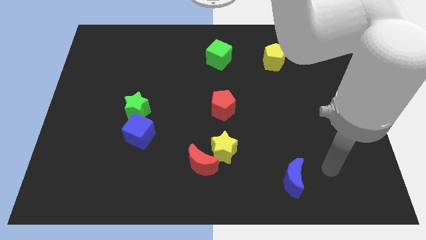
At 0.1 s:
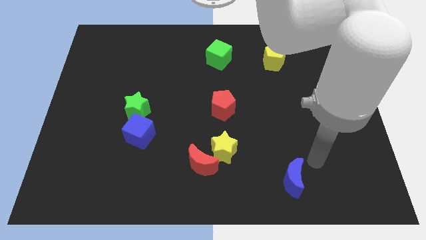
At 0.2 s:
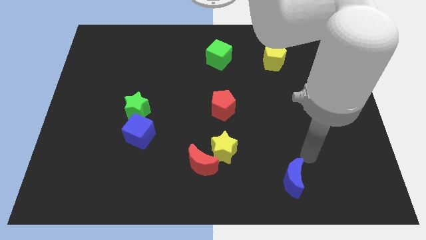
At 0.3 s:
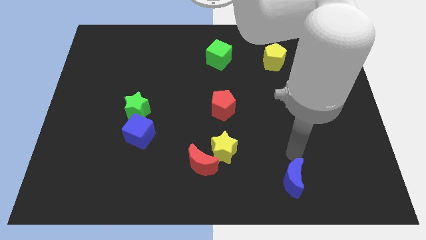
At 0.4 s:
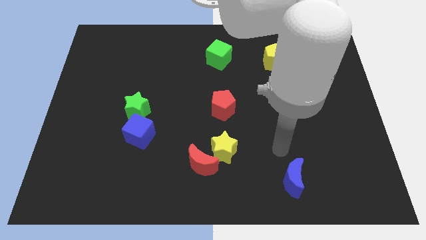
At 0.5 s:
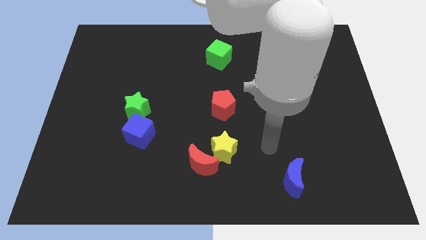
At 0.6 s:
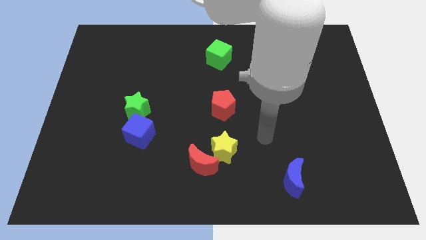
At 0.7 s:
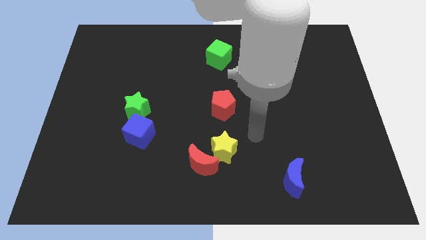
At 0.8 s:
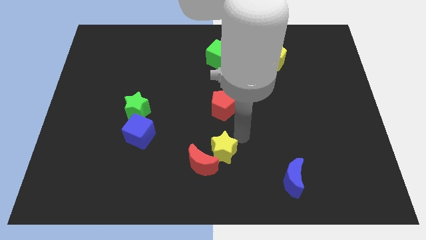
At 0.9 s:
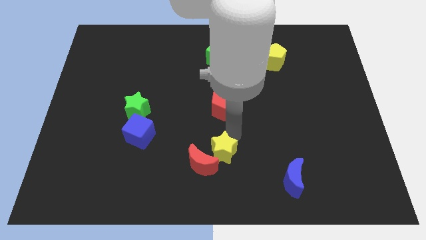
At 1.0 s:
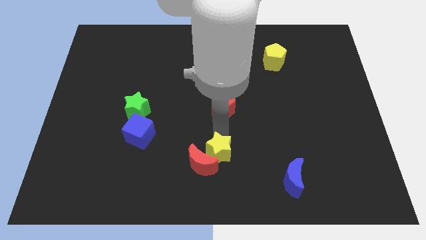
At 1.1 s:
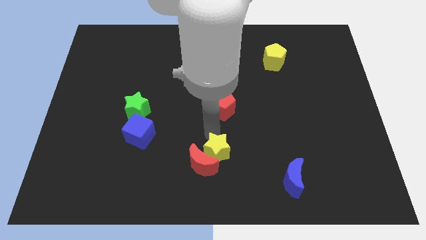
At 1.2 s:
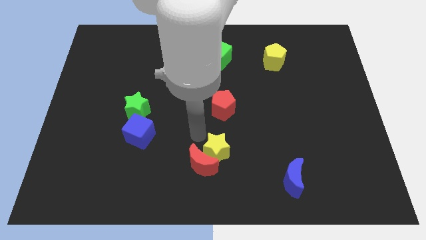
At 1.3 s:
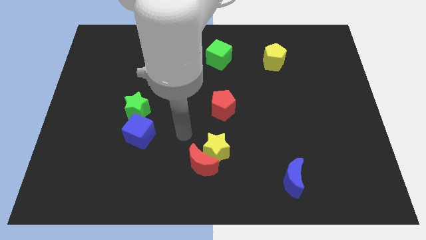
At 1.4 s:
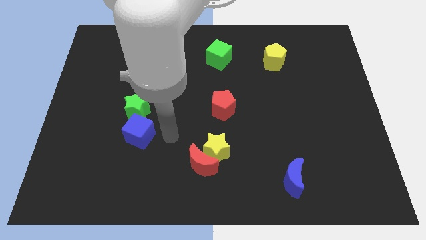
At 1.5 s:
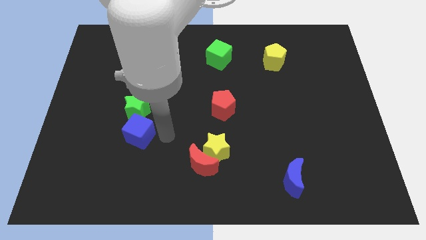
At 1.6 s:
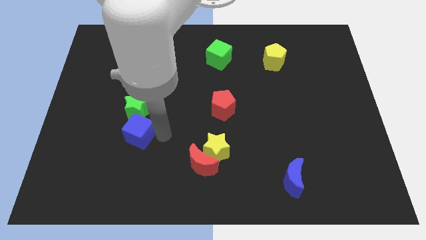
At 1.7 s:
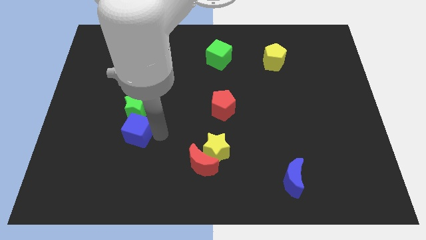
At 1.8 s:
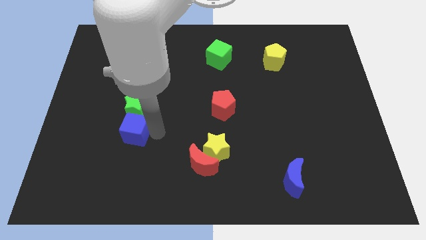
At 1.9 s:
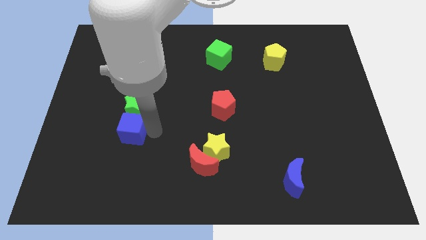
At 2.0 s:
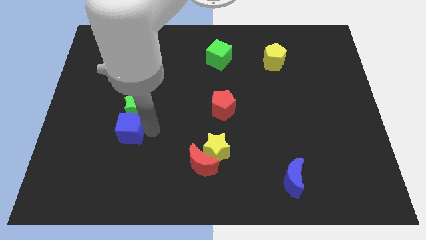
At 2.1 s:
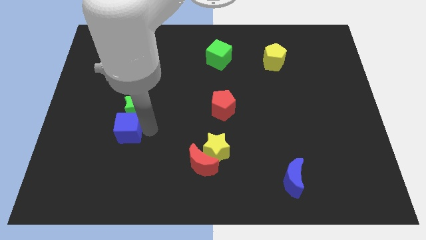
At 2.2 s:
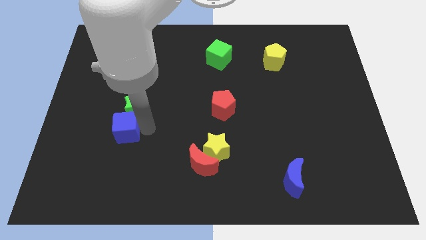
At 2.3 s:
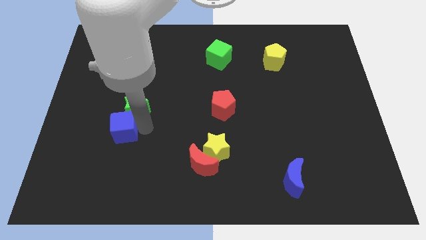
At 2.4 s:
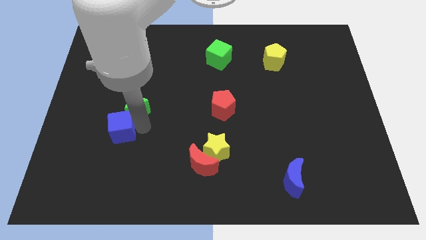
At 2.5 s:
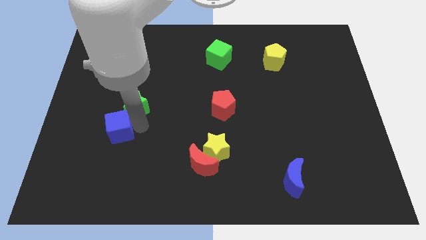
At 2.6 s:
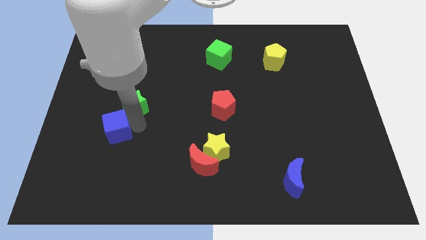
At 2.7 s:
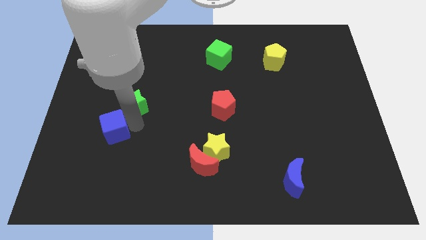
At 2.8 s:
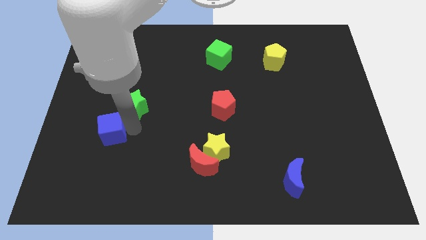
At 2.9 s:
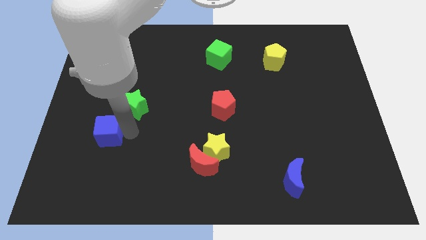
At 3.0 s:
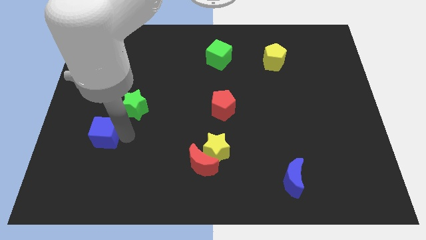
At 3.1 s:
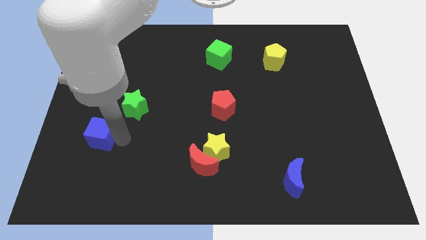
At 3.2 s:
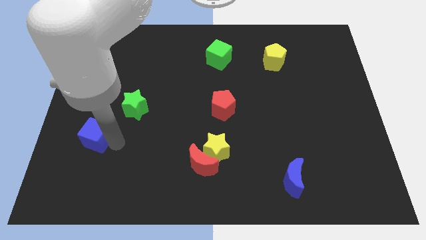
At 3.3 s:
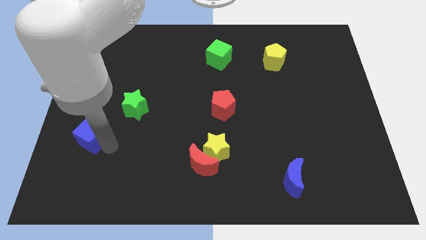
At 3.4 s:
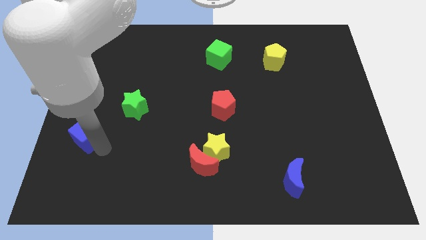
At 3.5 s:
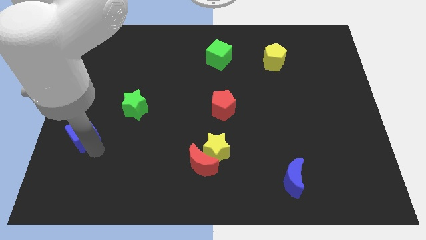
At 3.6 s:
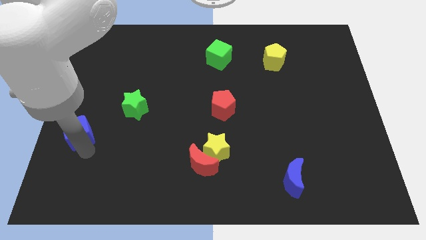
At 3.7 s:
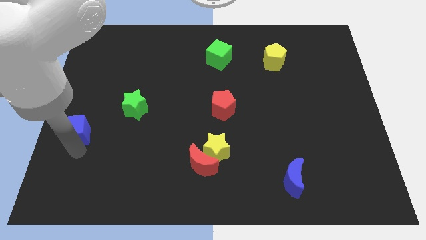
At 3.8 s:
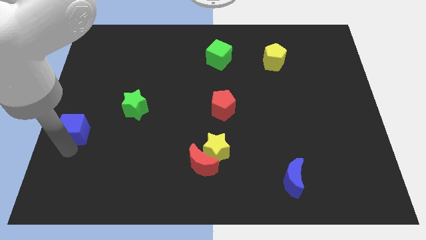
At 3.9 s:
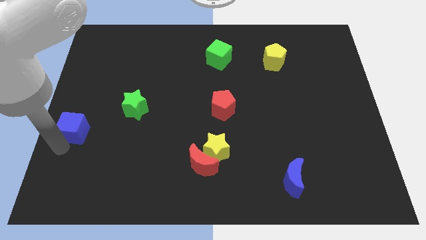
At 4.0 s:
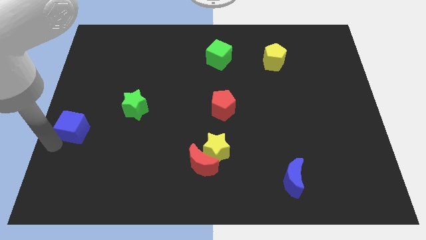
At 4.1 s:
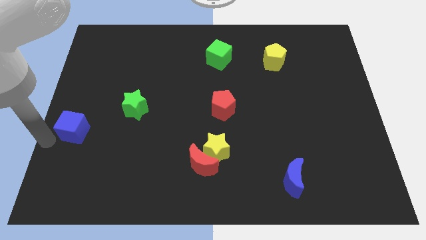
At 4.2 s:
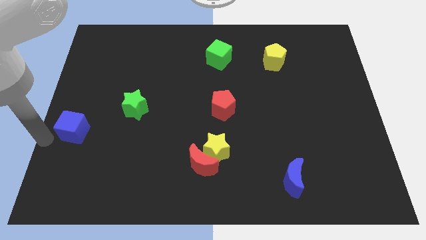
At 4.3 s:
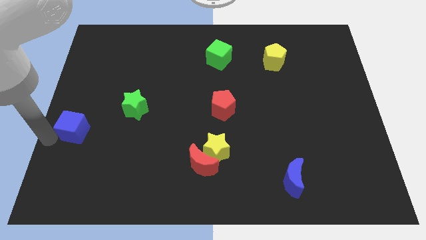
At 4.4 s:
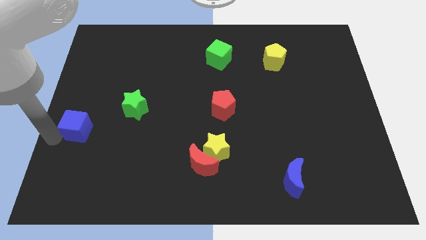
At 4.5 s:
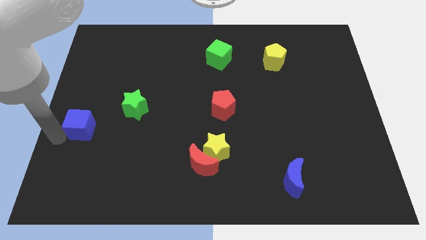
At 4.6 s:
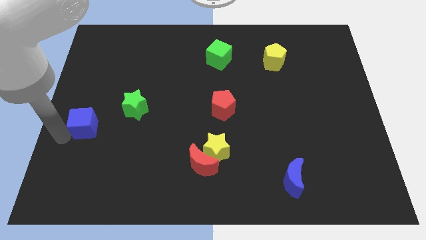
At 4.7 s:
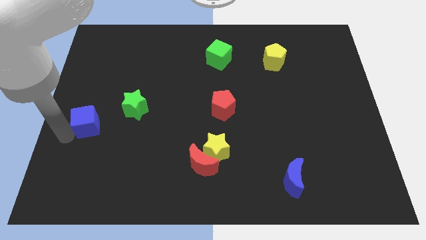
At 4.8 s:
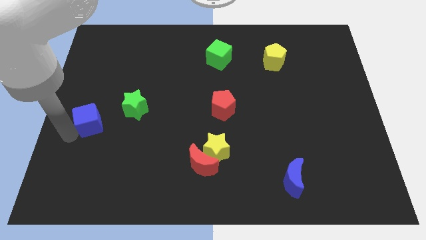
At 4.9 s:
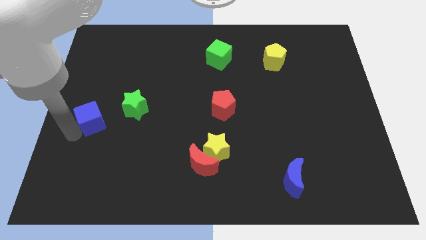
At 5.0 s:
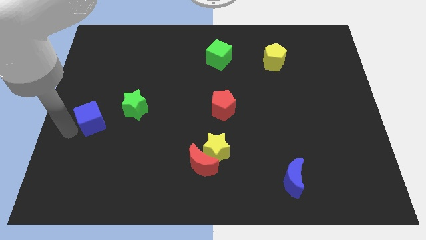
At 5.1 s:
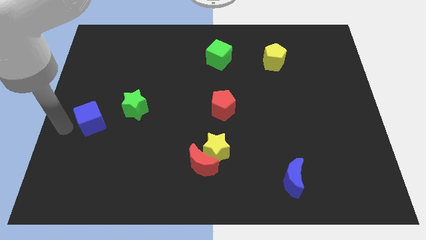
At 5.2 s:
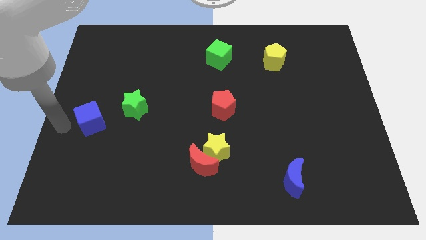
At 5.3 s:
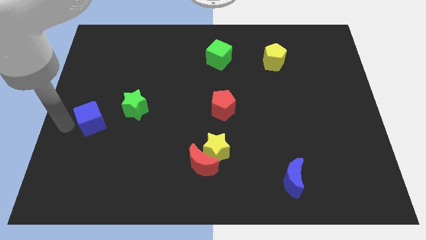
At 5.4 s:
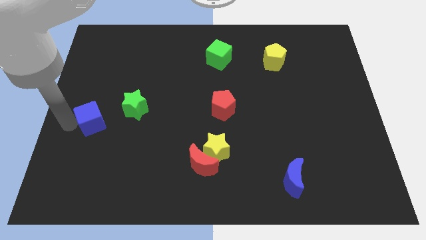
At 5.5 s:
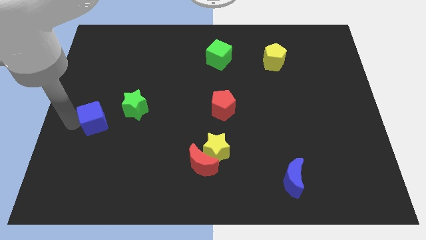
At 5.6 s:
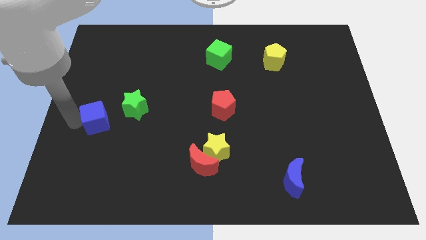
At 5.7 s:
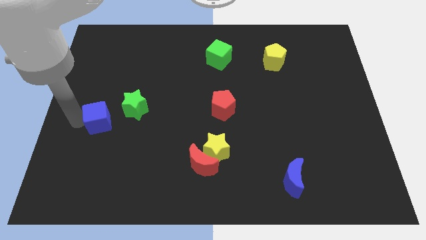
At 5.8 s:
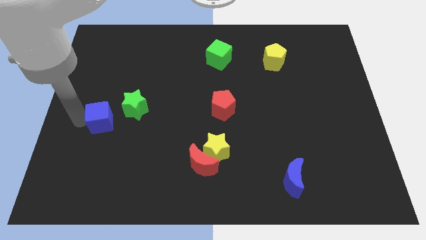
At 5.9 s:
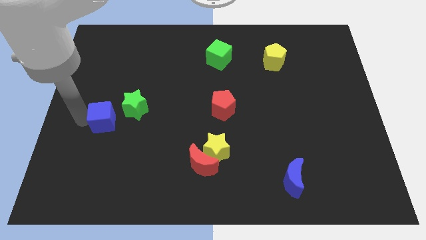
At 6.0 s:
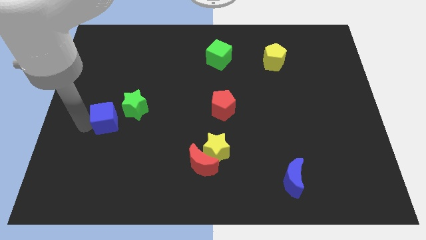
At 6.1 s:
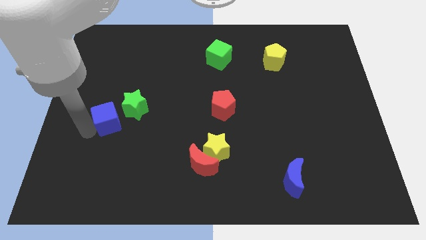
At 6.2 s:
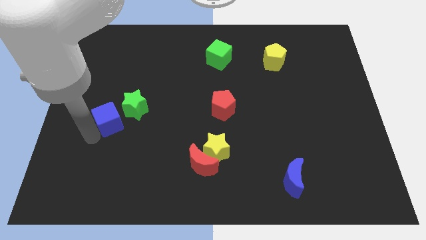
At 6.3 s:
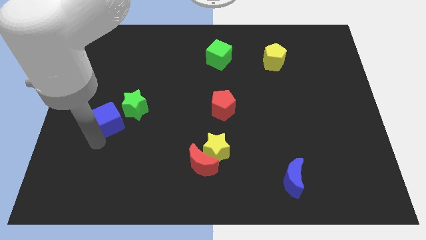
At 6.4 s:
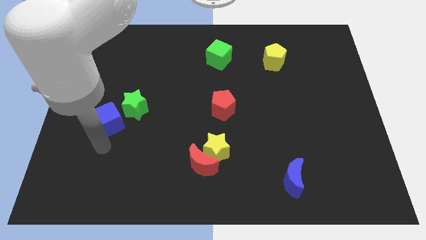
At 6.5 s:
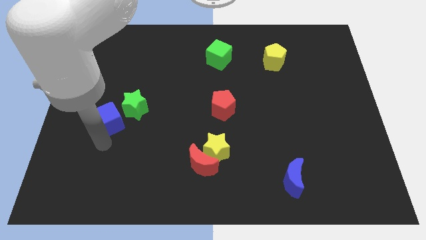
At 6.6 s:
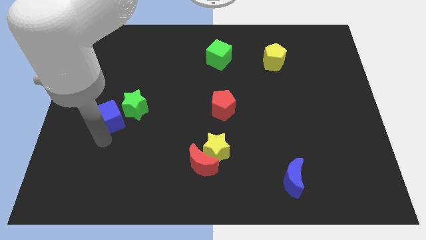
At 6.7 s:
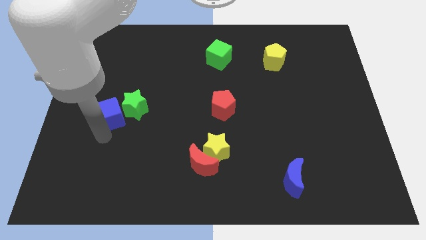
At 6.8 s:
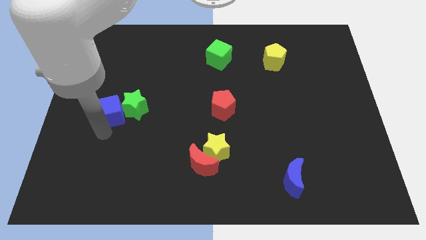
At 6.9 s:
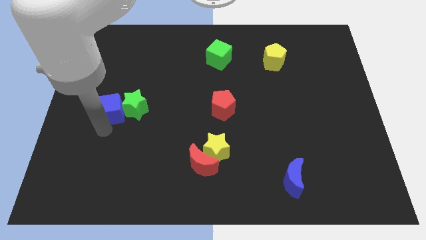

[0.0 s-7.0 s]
push the blue cube diagonally up and to the left of the green star

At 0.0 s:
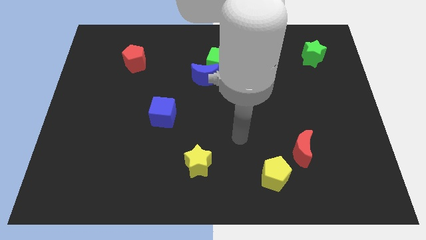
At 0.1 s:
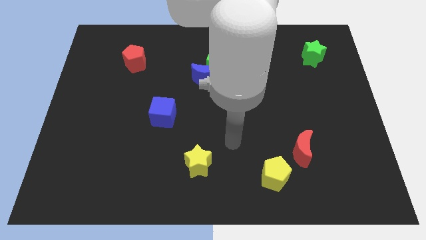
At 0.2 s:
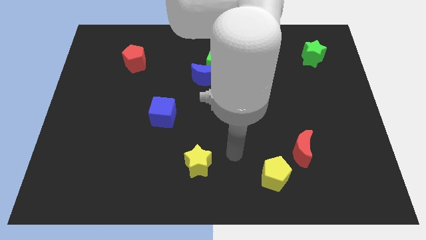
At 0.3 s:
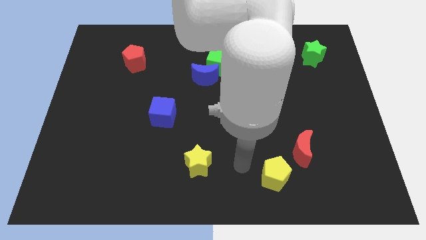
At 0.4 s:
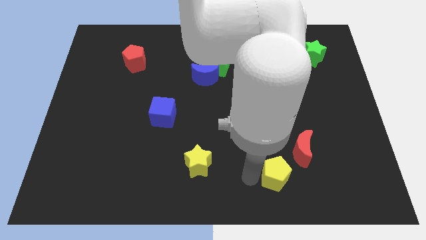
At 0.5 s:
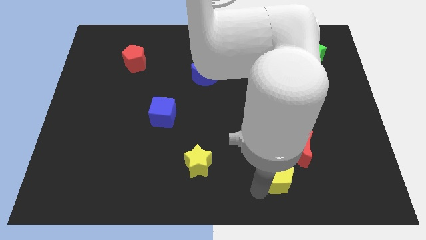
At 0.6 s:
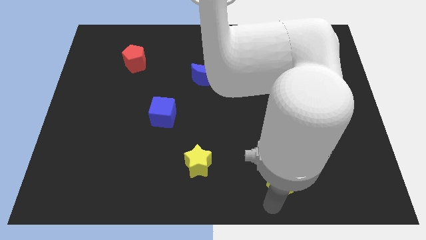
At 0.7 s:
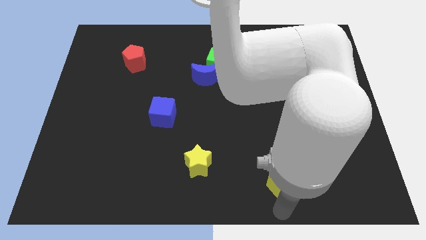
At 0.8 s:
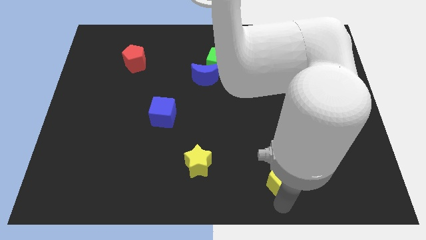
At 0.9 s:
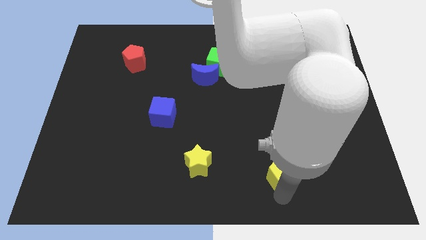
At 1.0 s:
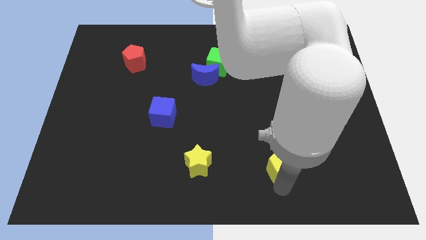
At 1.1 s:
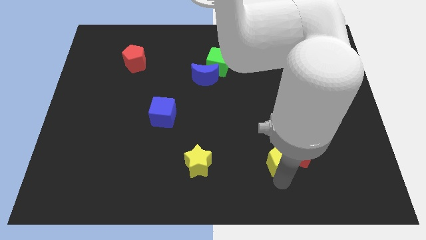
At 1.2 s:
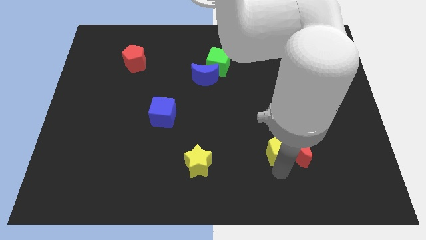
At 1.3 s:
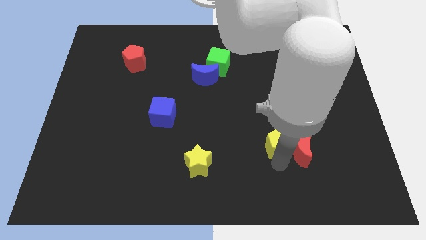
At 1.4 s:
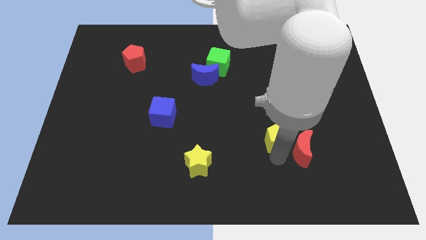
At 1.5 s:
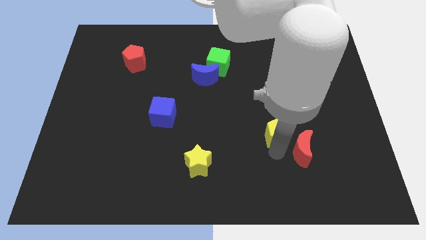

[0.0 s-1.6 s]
slide the yellow pentagon to the top side of the red moon
